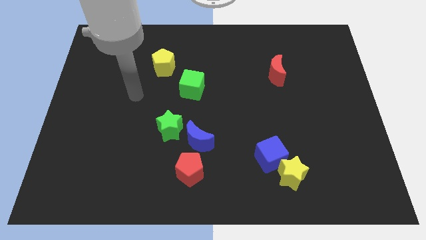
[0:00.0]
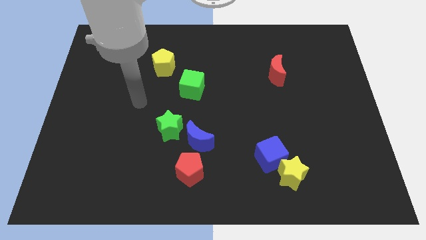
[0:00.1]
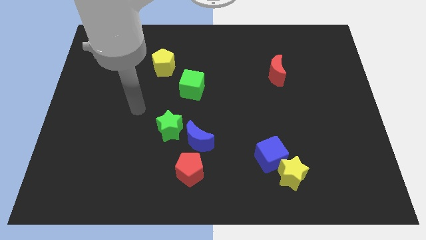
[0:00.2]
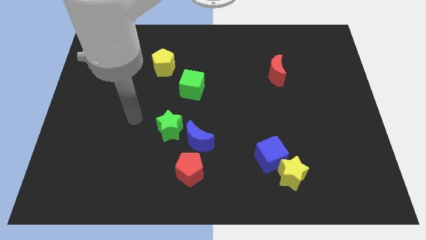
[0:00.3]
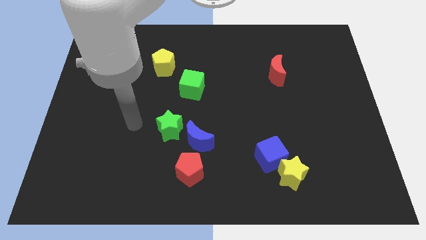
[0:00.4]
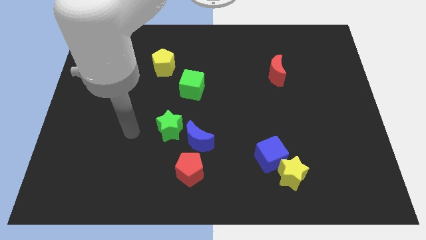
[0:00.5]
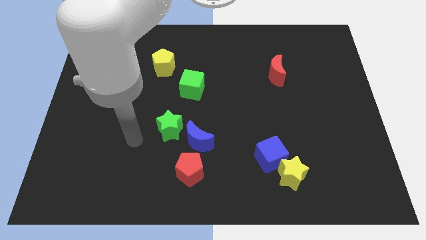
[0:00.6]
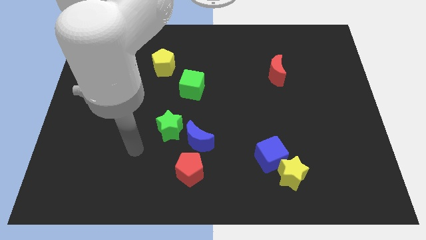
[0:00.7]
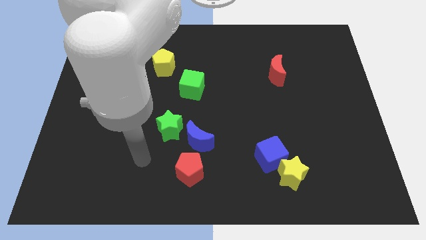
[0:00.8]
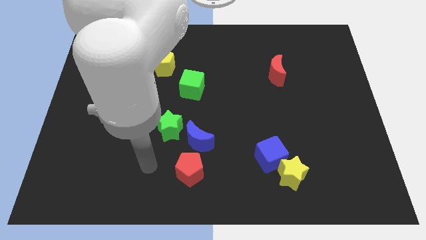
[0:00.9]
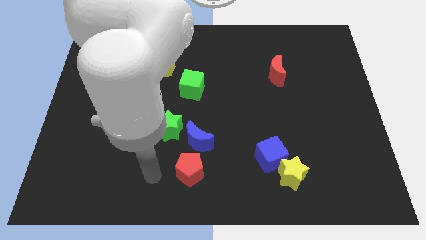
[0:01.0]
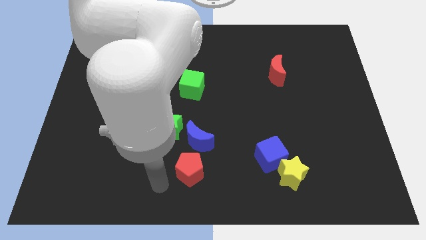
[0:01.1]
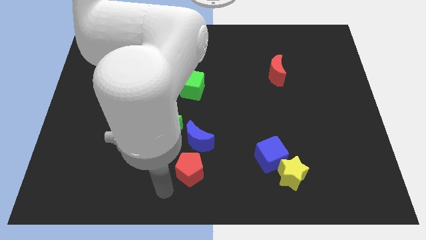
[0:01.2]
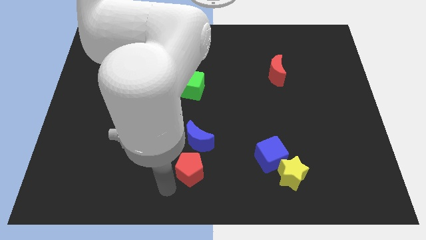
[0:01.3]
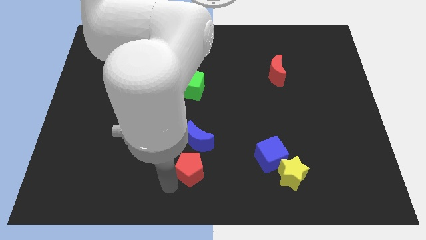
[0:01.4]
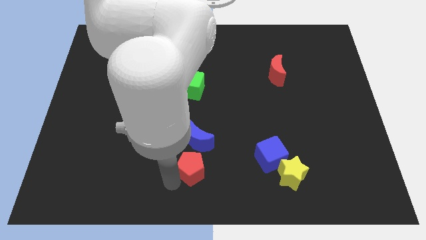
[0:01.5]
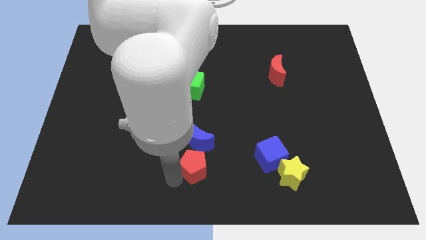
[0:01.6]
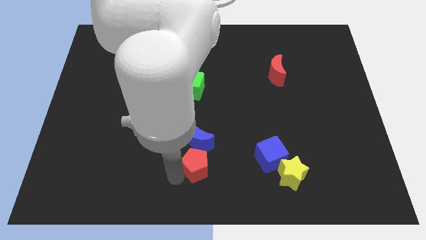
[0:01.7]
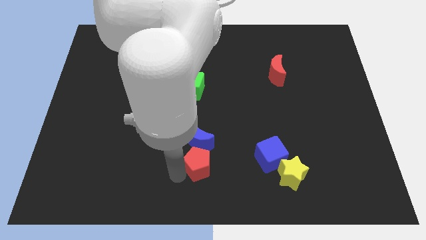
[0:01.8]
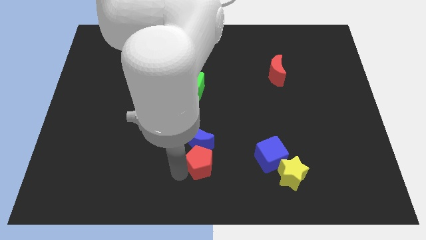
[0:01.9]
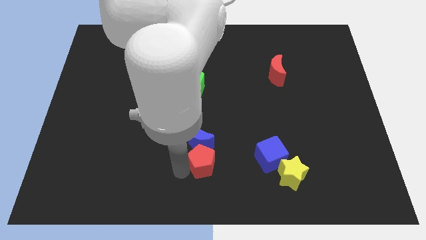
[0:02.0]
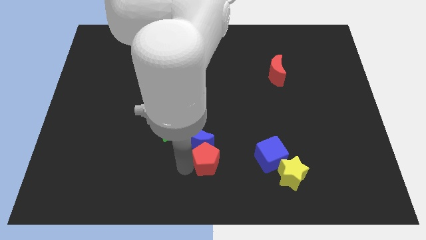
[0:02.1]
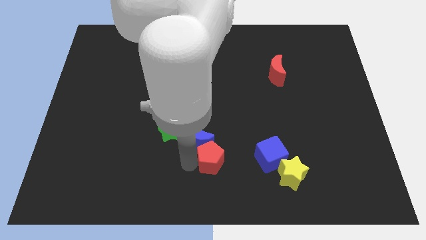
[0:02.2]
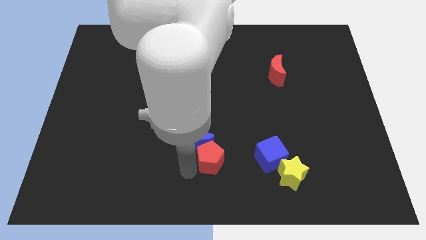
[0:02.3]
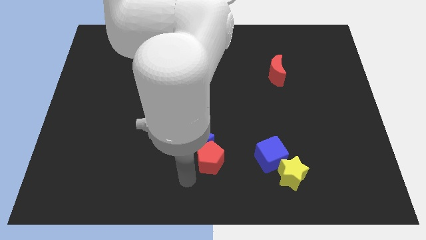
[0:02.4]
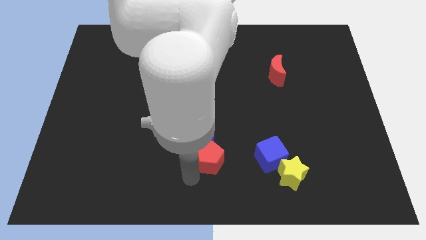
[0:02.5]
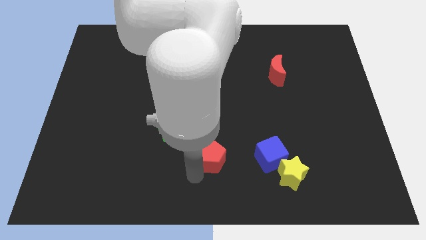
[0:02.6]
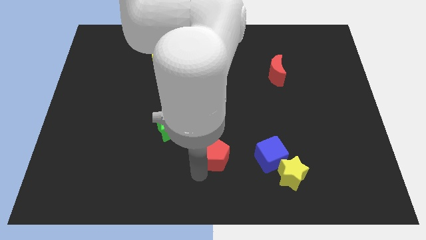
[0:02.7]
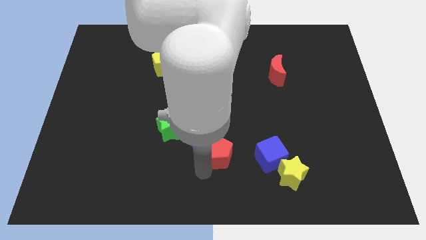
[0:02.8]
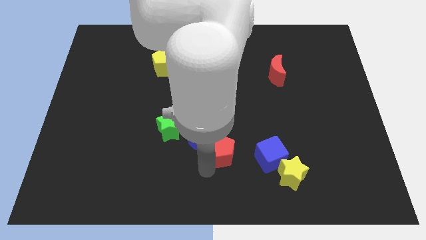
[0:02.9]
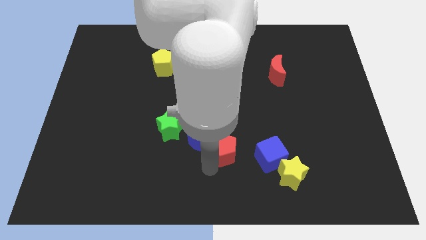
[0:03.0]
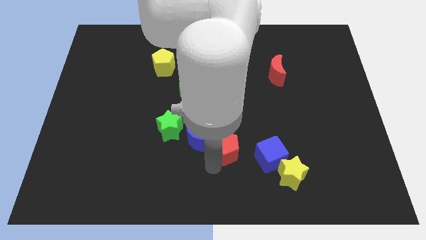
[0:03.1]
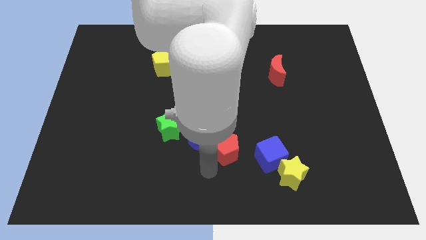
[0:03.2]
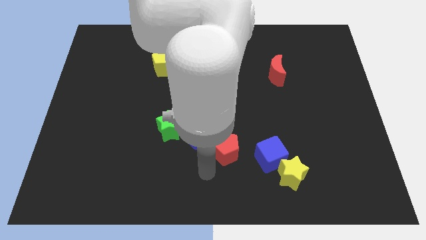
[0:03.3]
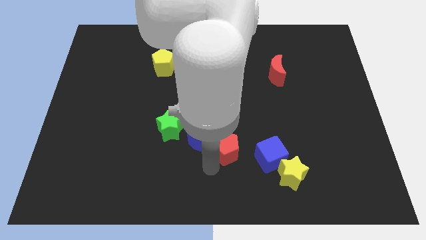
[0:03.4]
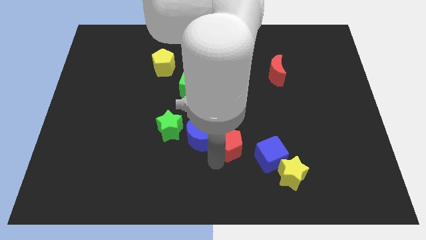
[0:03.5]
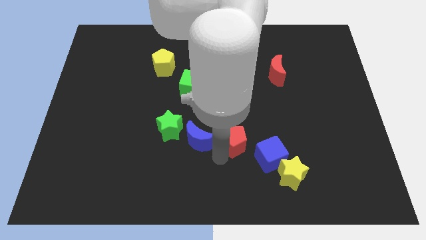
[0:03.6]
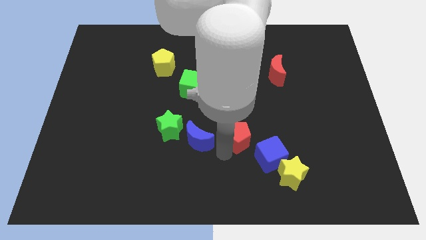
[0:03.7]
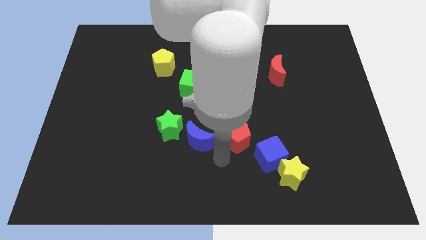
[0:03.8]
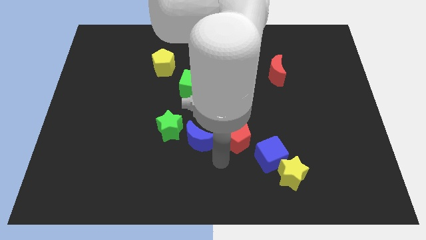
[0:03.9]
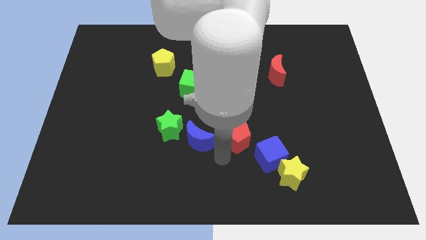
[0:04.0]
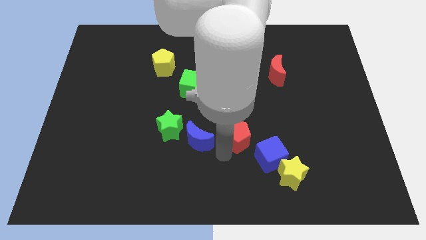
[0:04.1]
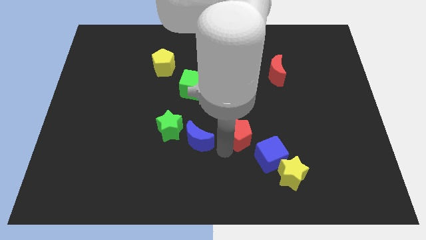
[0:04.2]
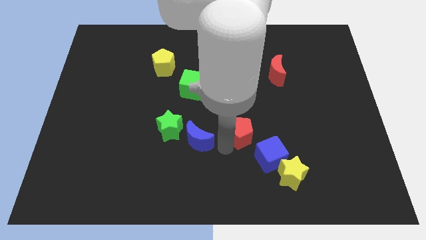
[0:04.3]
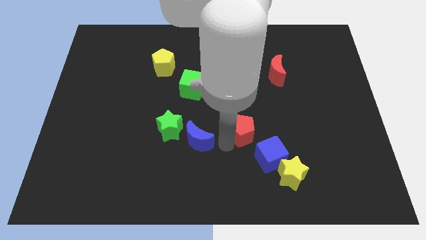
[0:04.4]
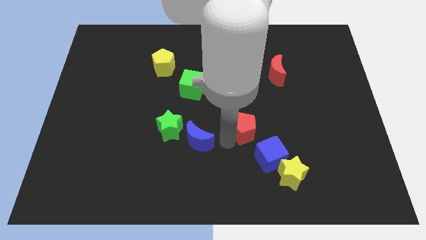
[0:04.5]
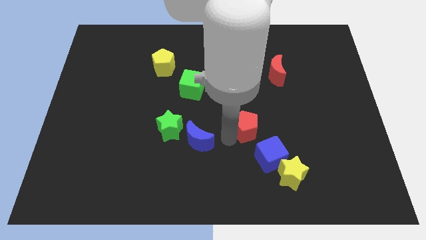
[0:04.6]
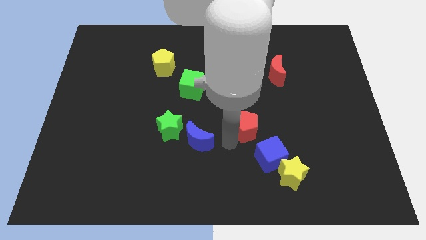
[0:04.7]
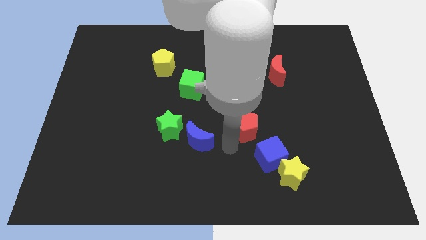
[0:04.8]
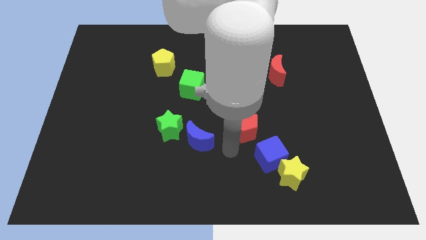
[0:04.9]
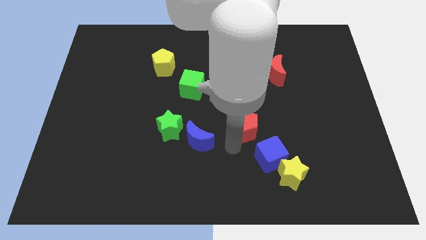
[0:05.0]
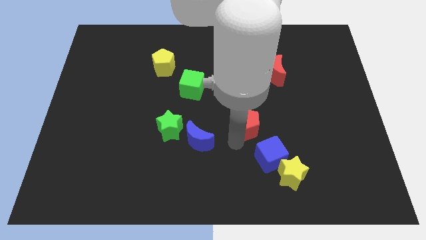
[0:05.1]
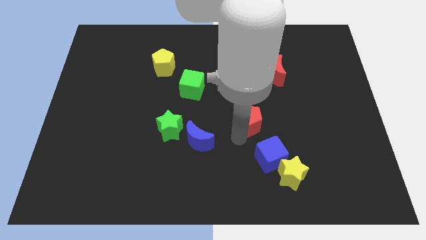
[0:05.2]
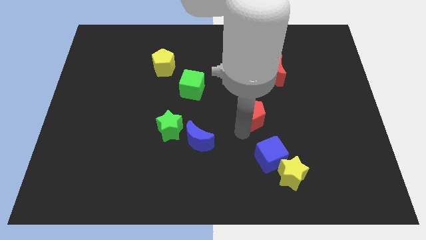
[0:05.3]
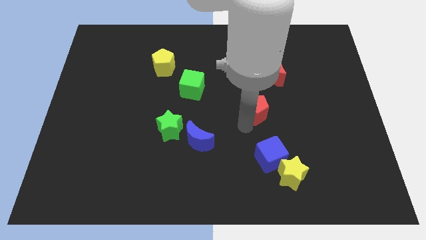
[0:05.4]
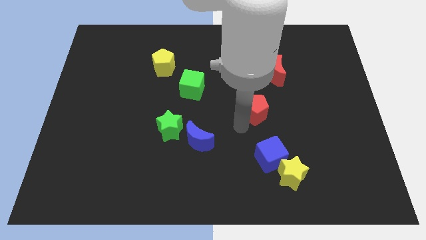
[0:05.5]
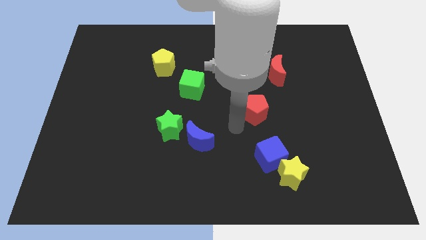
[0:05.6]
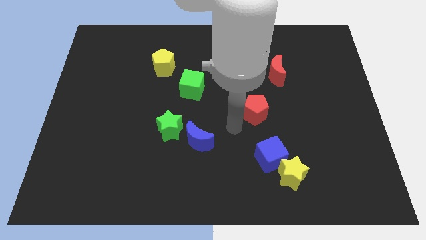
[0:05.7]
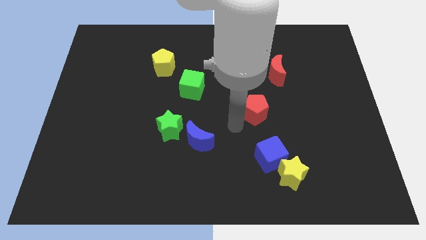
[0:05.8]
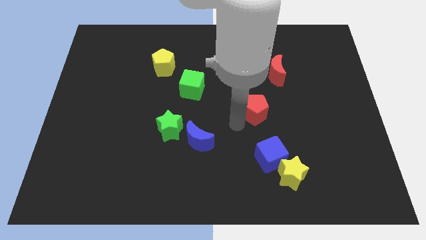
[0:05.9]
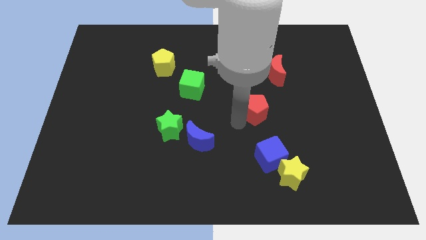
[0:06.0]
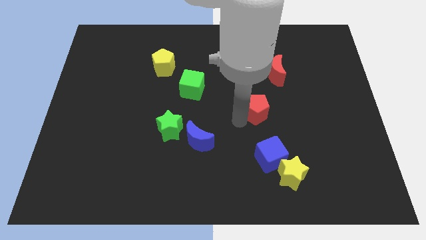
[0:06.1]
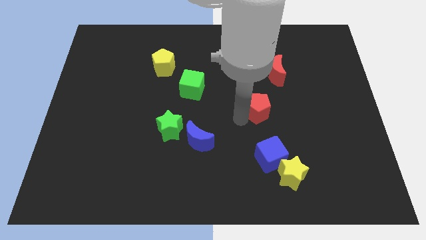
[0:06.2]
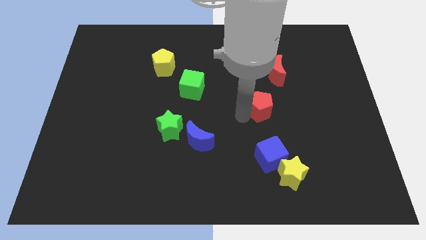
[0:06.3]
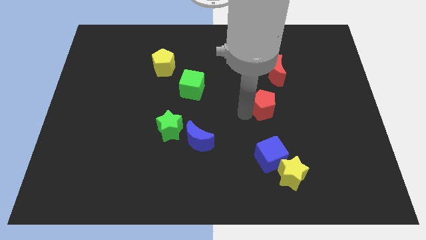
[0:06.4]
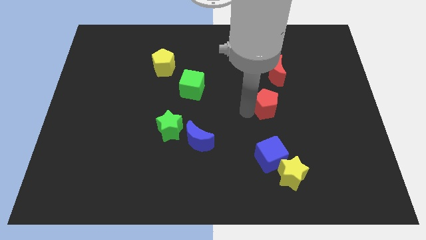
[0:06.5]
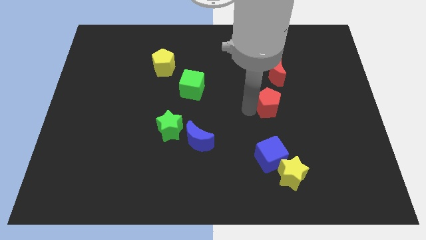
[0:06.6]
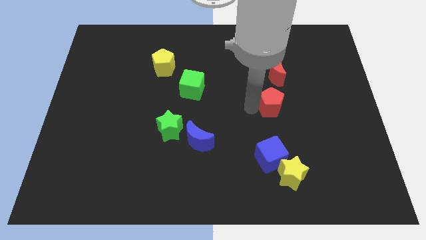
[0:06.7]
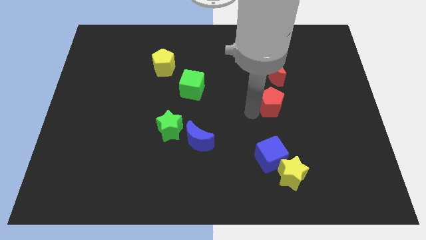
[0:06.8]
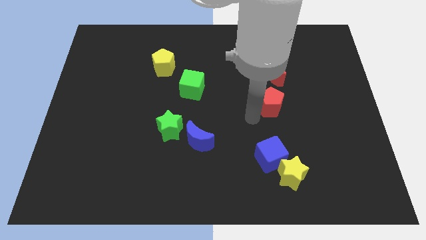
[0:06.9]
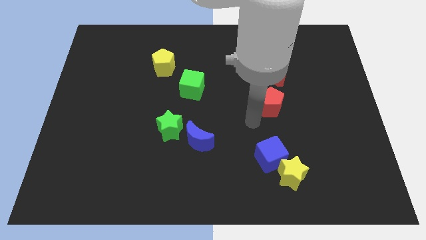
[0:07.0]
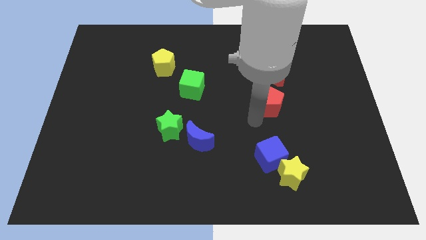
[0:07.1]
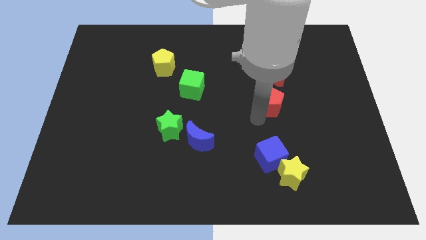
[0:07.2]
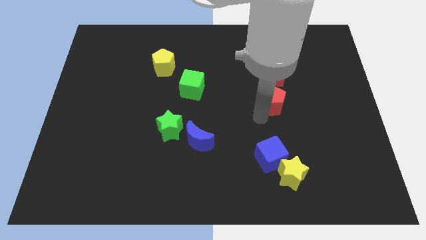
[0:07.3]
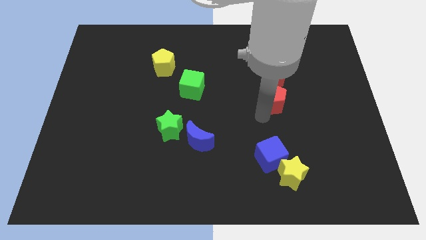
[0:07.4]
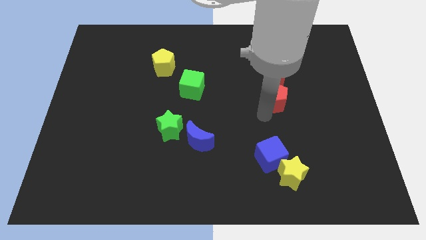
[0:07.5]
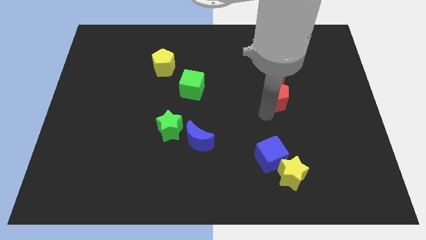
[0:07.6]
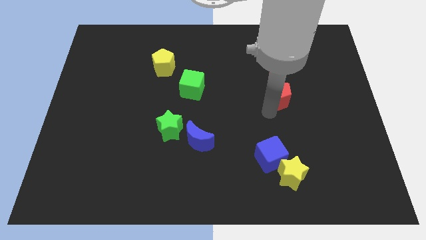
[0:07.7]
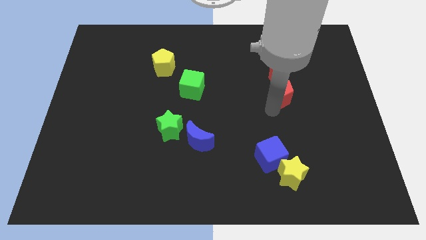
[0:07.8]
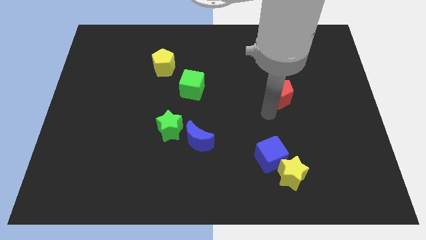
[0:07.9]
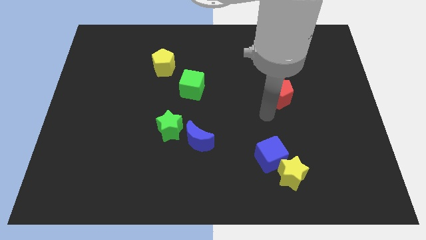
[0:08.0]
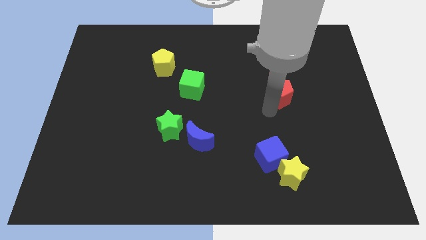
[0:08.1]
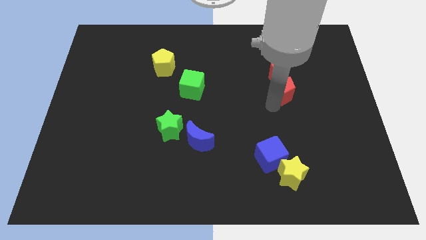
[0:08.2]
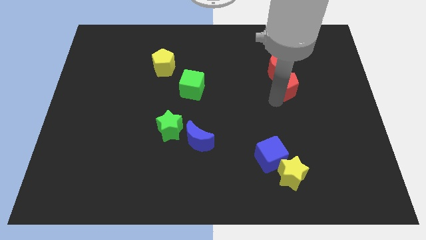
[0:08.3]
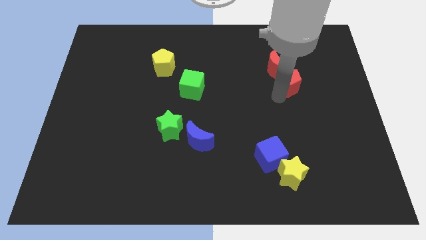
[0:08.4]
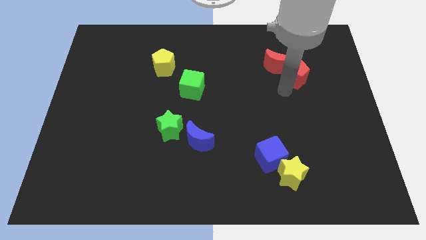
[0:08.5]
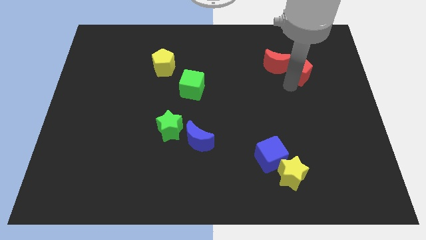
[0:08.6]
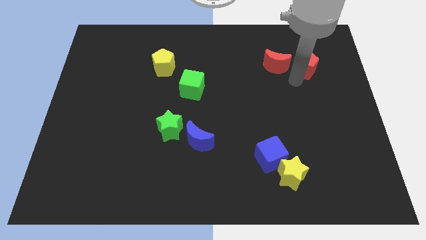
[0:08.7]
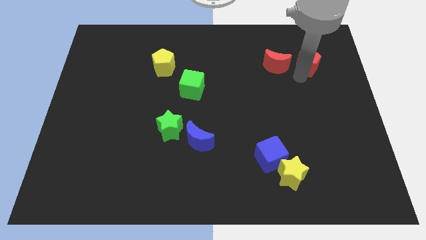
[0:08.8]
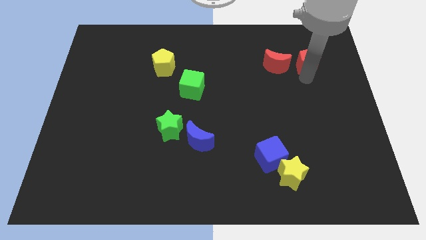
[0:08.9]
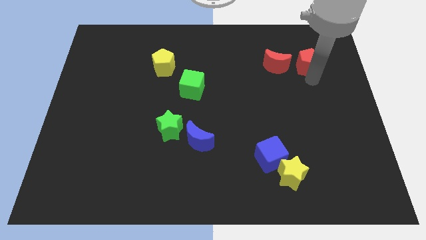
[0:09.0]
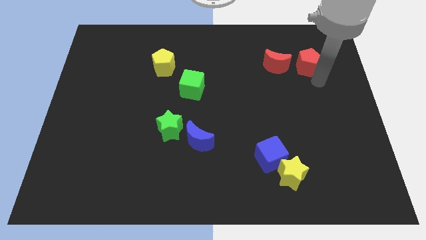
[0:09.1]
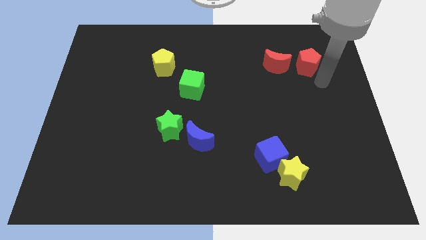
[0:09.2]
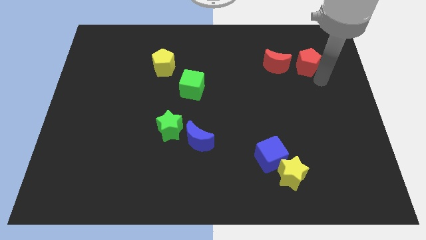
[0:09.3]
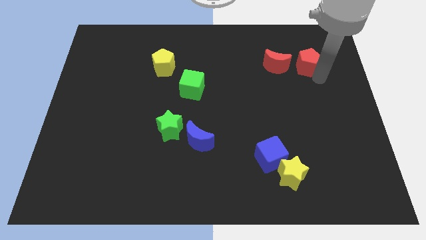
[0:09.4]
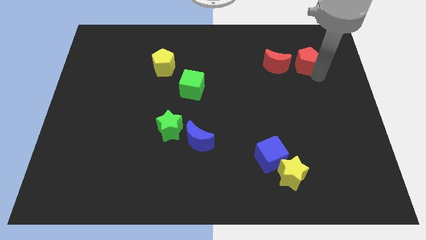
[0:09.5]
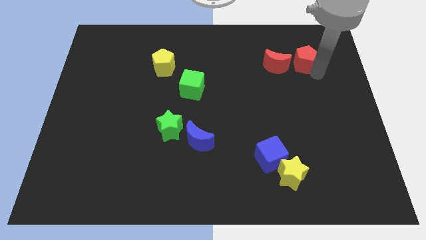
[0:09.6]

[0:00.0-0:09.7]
put the red pentagon to the top right of the red moon
